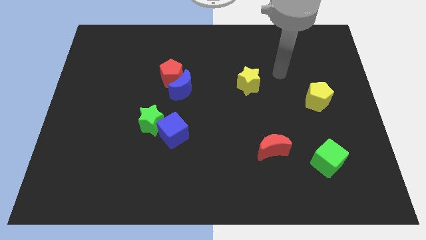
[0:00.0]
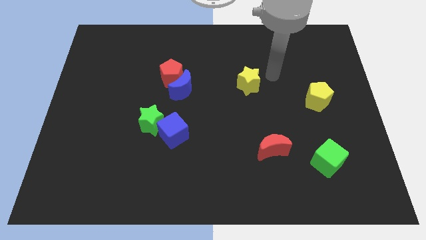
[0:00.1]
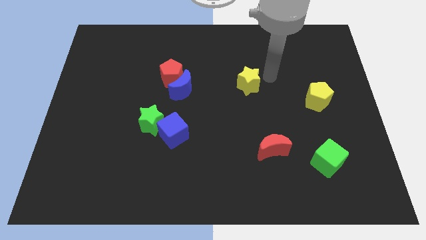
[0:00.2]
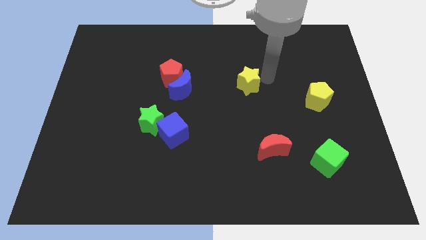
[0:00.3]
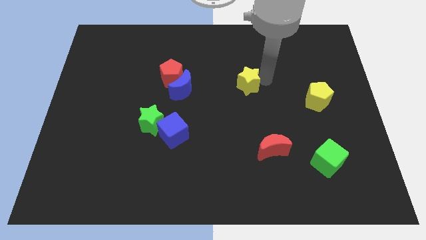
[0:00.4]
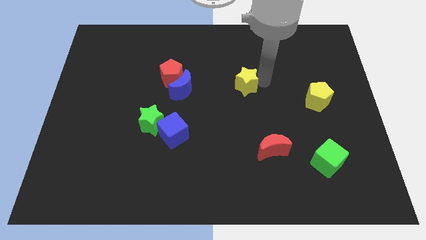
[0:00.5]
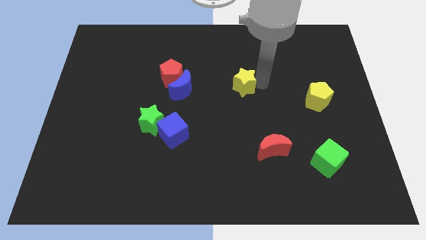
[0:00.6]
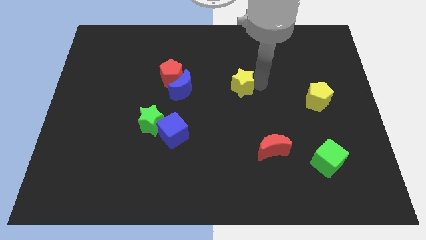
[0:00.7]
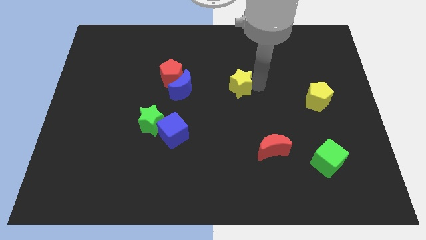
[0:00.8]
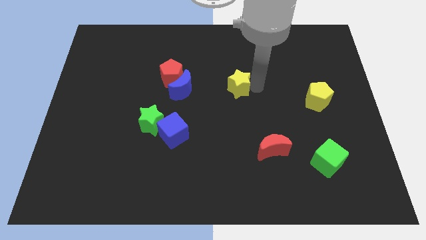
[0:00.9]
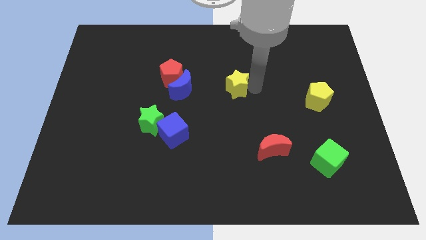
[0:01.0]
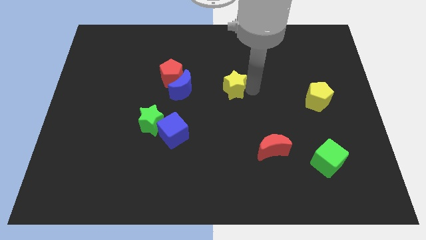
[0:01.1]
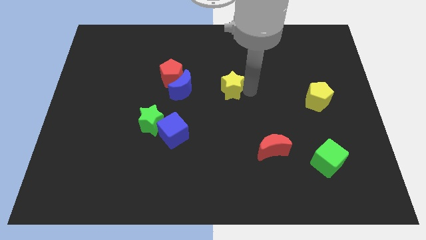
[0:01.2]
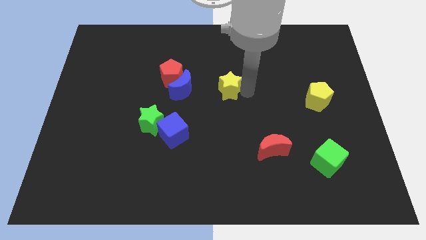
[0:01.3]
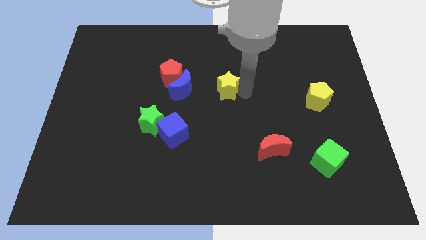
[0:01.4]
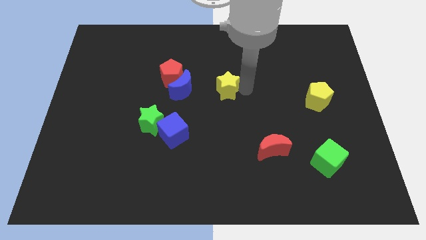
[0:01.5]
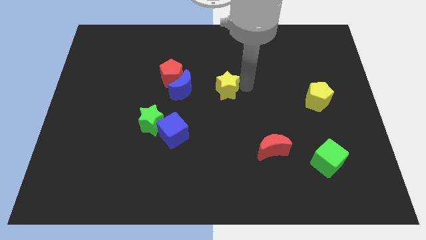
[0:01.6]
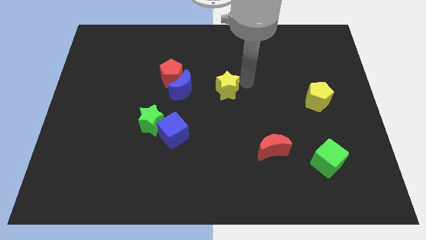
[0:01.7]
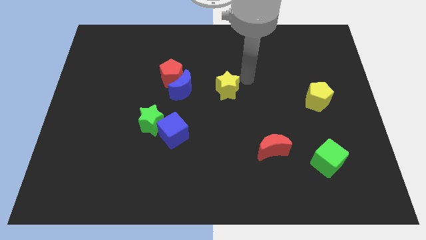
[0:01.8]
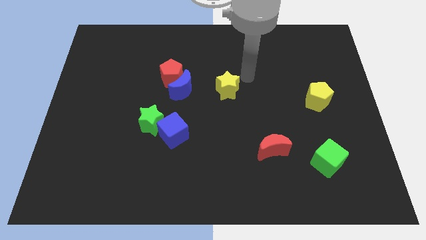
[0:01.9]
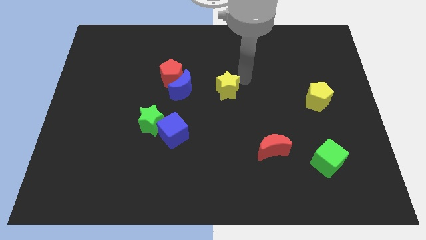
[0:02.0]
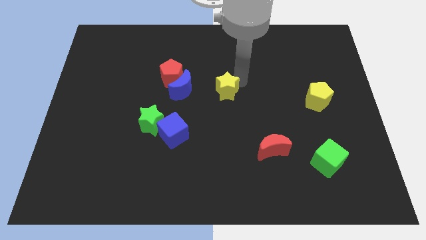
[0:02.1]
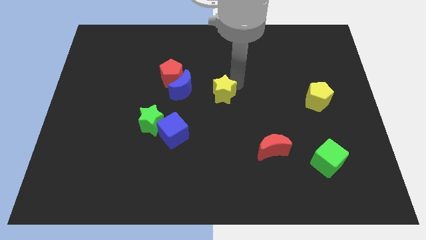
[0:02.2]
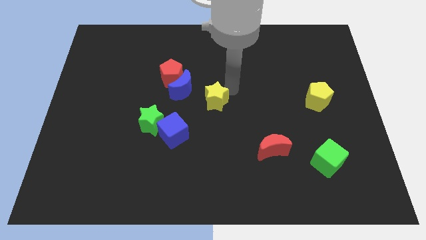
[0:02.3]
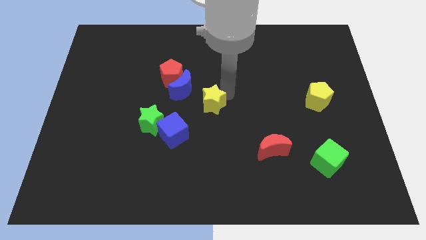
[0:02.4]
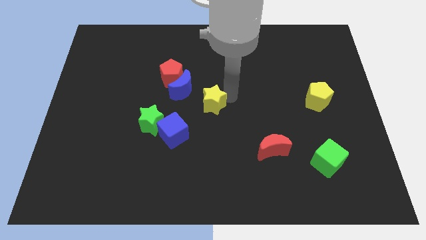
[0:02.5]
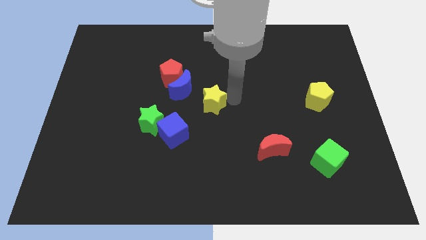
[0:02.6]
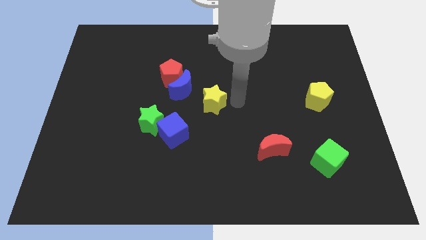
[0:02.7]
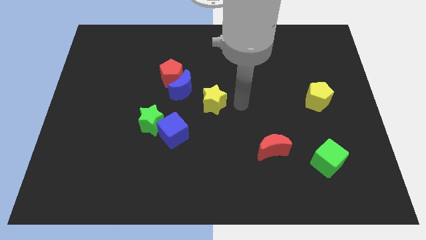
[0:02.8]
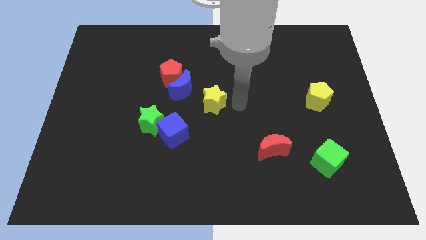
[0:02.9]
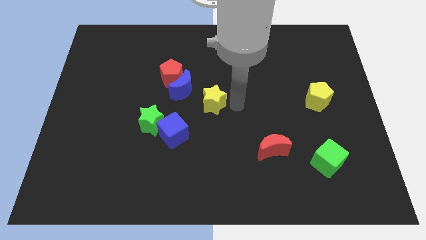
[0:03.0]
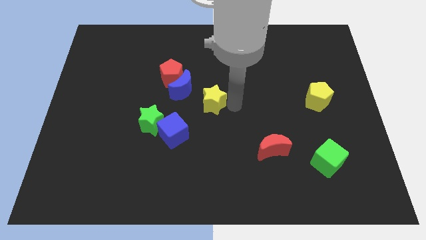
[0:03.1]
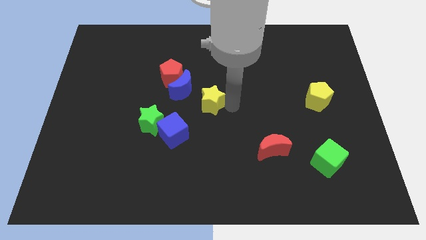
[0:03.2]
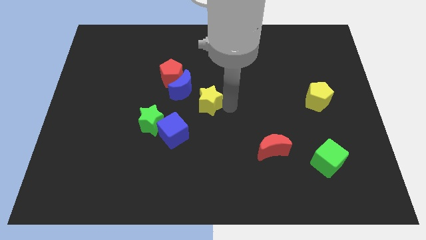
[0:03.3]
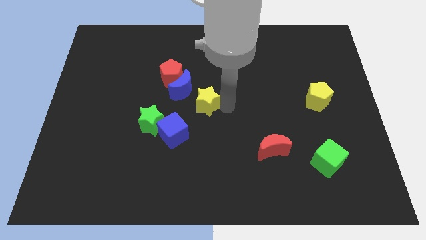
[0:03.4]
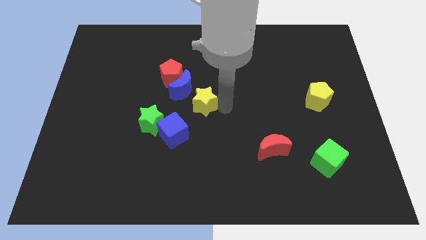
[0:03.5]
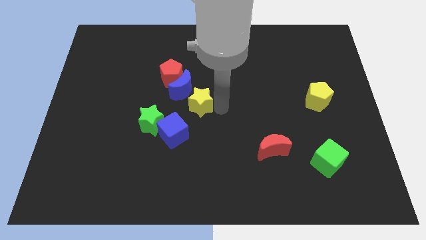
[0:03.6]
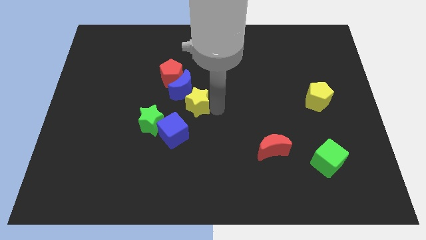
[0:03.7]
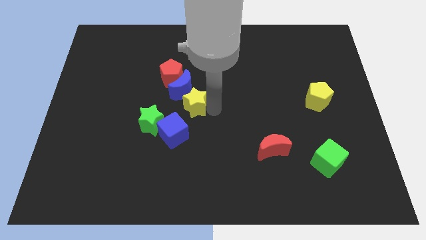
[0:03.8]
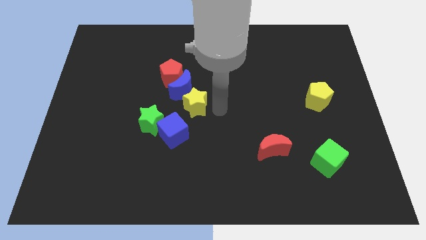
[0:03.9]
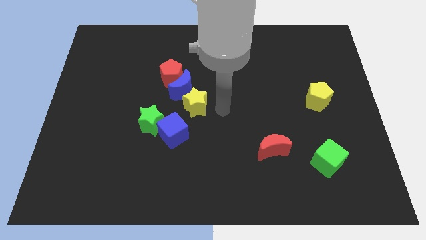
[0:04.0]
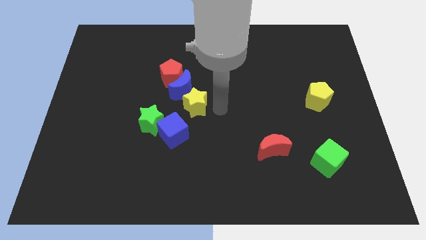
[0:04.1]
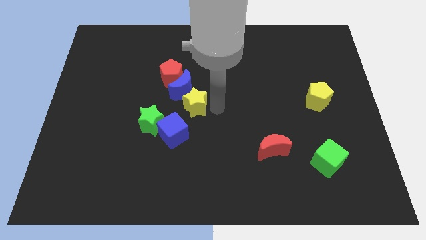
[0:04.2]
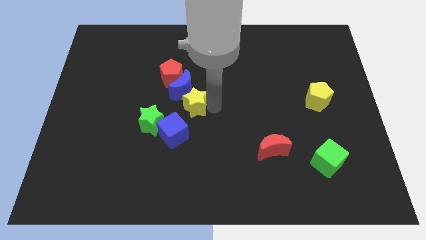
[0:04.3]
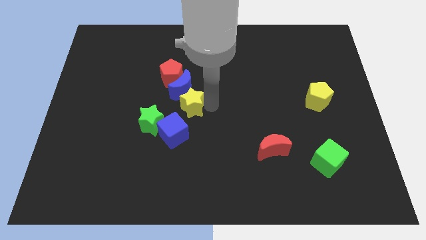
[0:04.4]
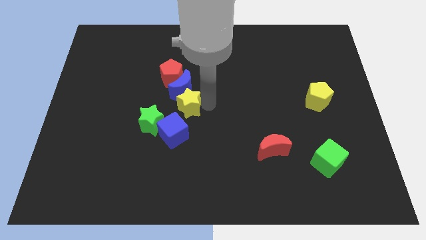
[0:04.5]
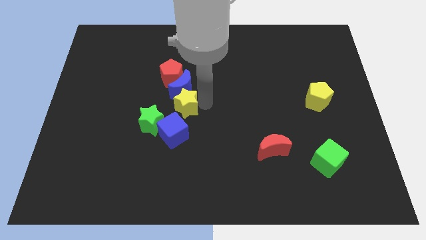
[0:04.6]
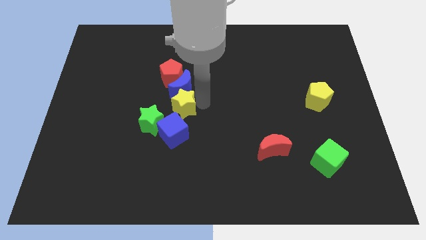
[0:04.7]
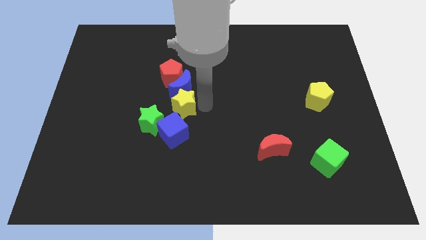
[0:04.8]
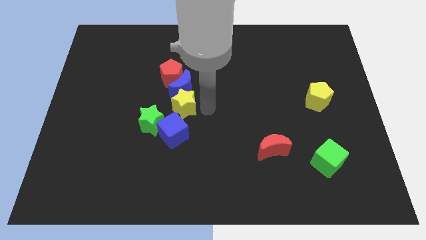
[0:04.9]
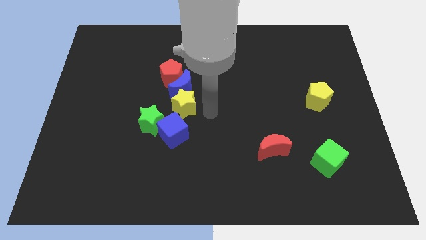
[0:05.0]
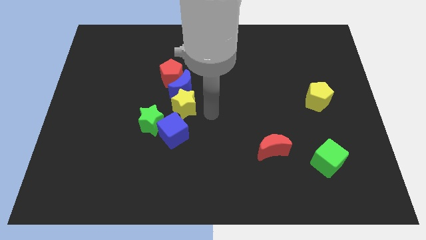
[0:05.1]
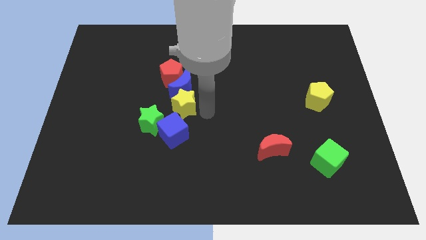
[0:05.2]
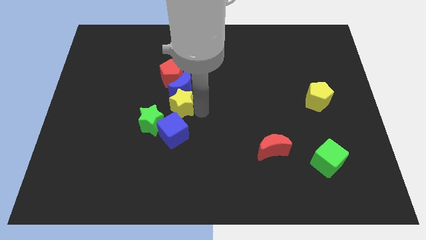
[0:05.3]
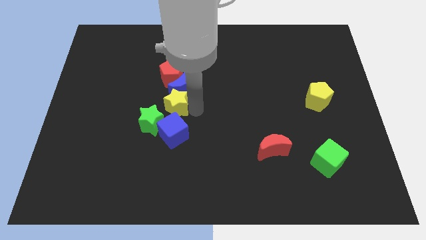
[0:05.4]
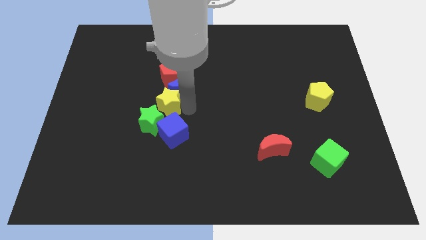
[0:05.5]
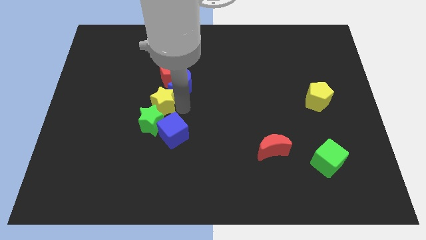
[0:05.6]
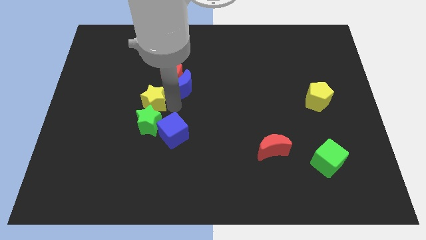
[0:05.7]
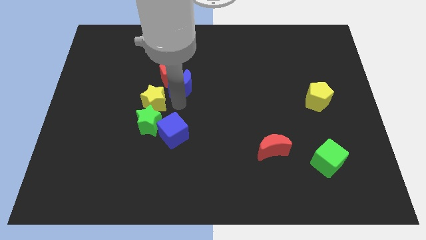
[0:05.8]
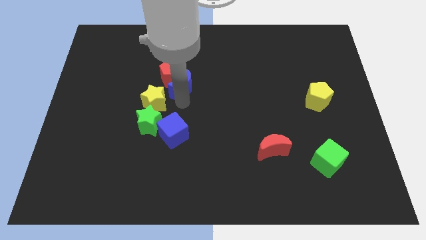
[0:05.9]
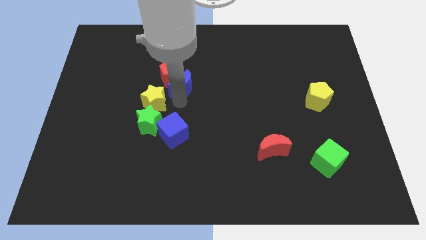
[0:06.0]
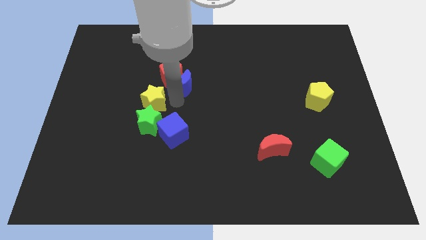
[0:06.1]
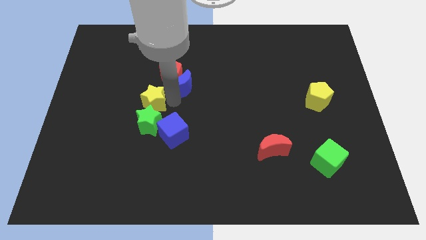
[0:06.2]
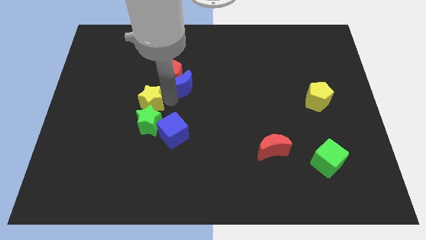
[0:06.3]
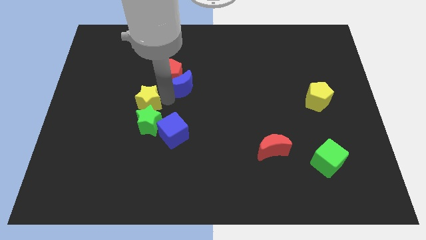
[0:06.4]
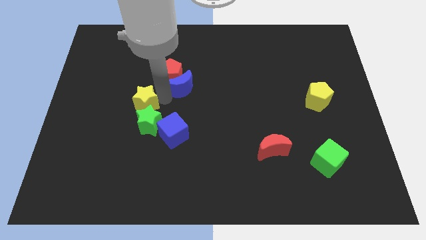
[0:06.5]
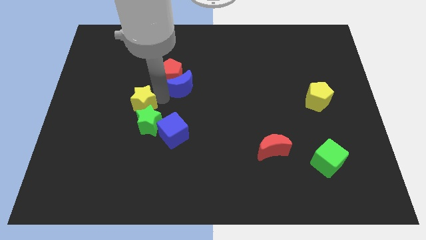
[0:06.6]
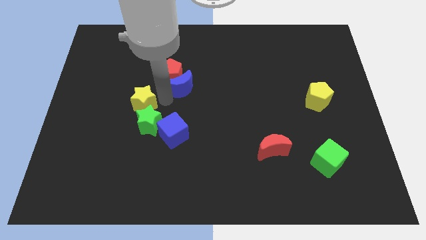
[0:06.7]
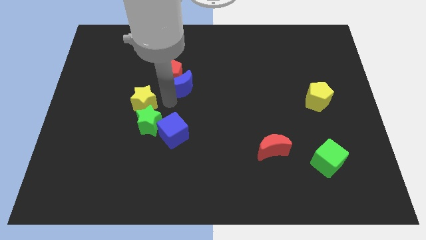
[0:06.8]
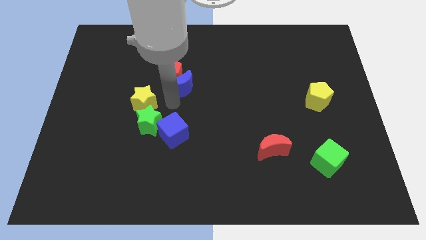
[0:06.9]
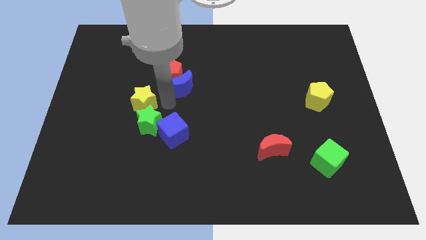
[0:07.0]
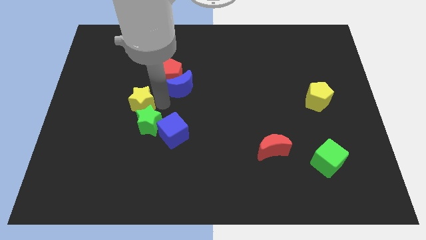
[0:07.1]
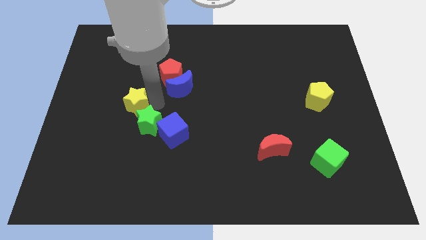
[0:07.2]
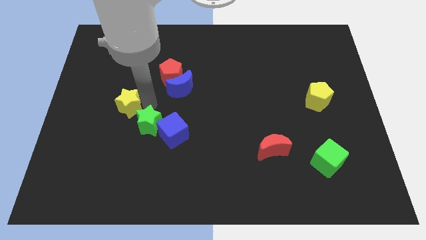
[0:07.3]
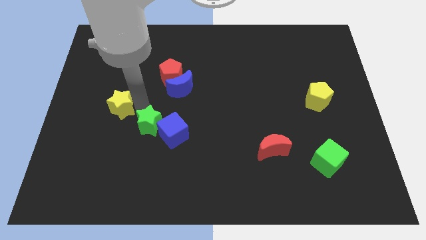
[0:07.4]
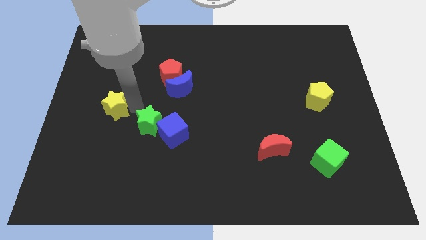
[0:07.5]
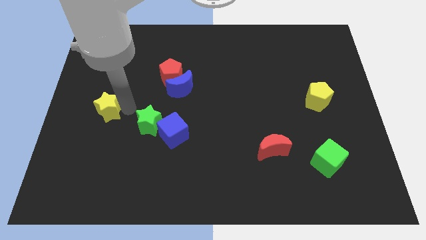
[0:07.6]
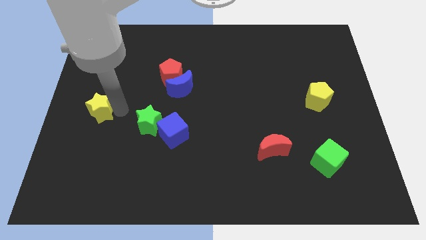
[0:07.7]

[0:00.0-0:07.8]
put the yellow star to the left side of the board
